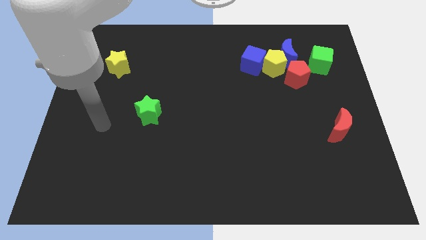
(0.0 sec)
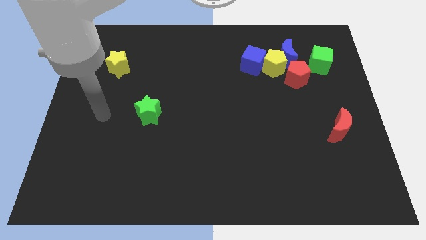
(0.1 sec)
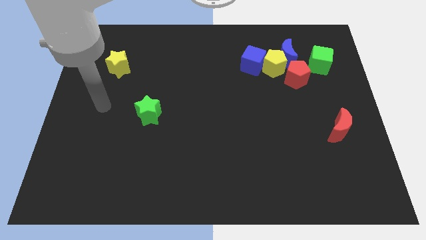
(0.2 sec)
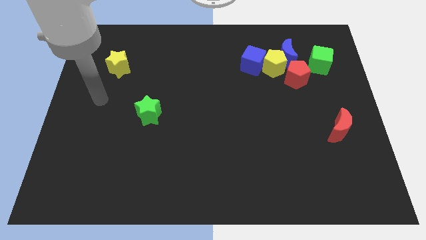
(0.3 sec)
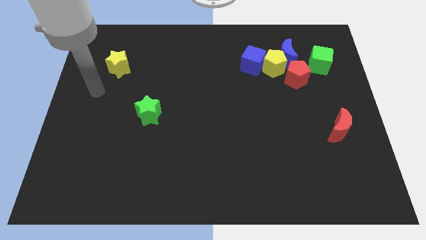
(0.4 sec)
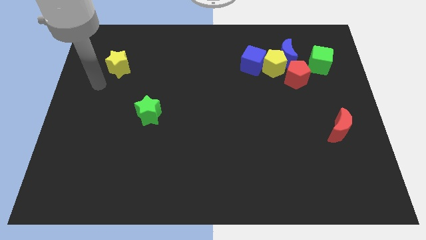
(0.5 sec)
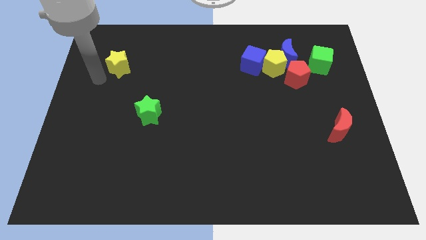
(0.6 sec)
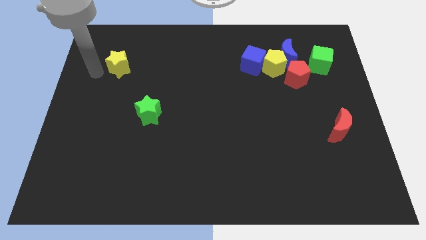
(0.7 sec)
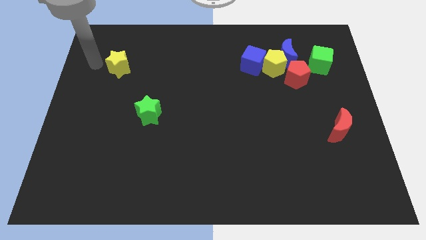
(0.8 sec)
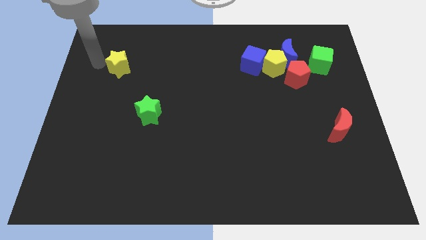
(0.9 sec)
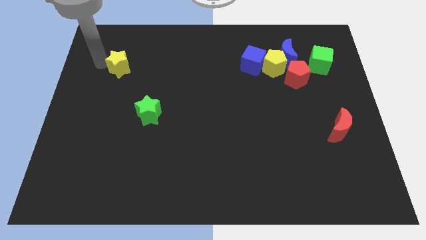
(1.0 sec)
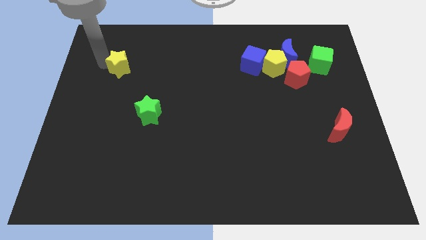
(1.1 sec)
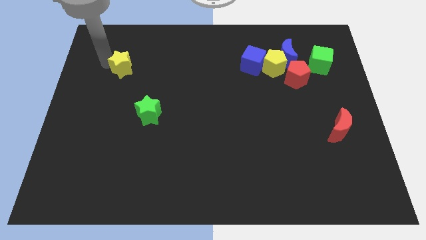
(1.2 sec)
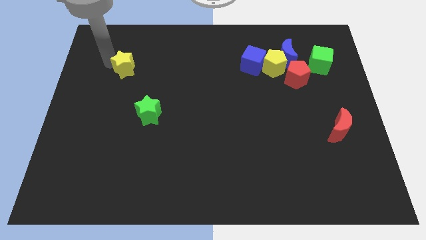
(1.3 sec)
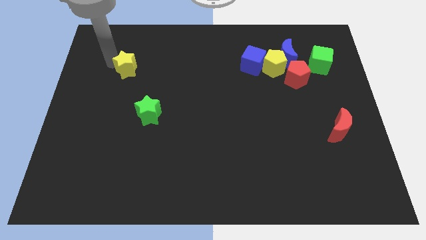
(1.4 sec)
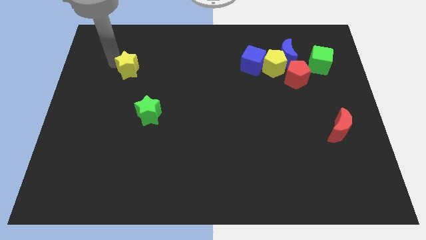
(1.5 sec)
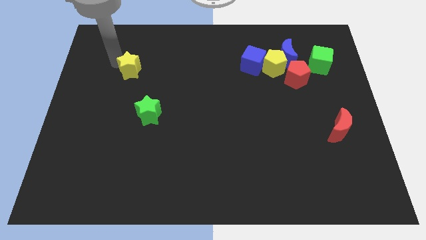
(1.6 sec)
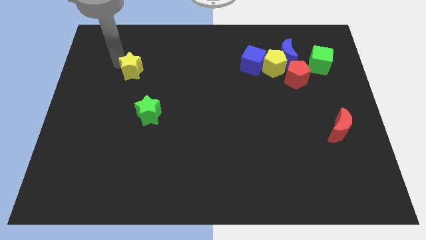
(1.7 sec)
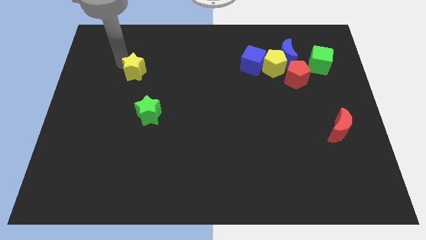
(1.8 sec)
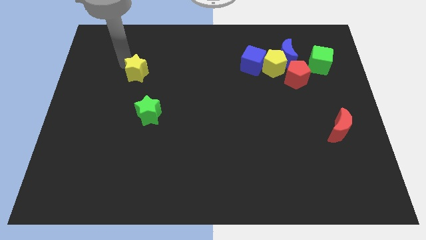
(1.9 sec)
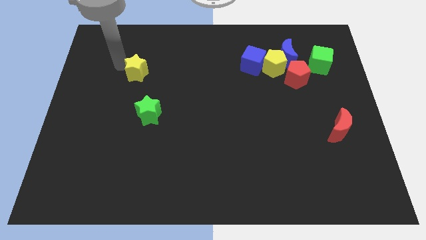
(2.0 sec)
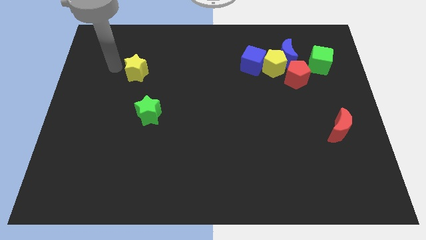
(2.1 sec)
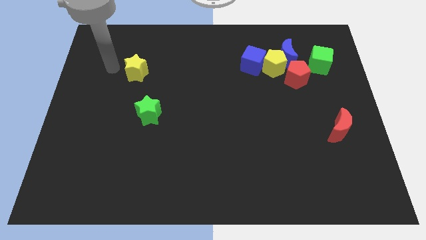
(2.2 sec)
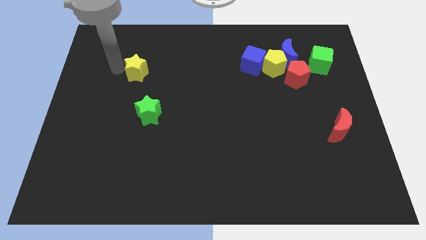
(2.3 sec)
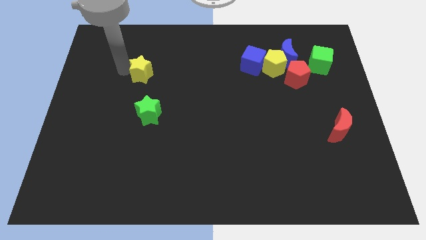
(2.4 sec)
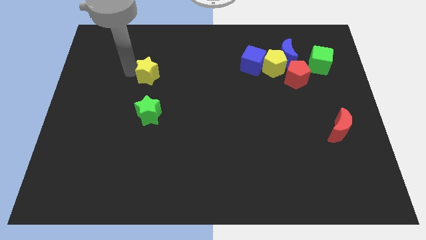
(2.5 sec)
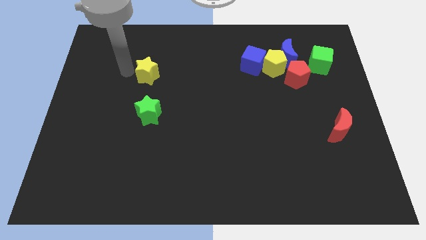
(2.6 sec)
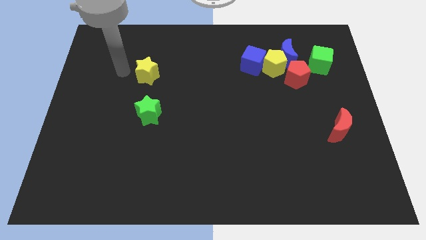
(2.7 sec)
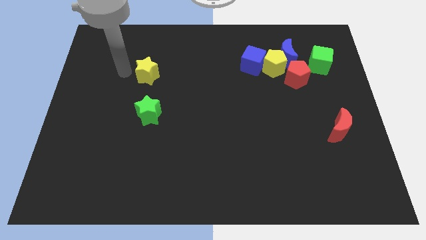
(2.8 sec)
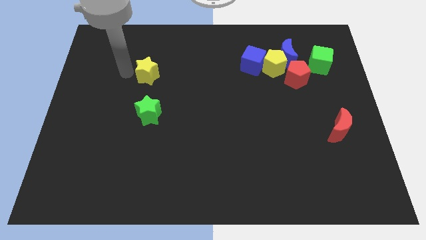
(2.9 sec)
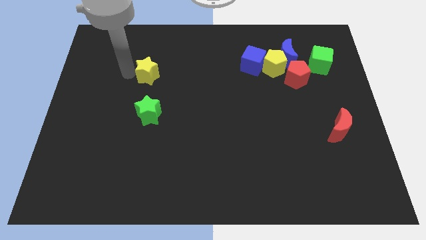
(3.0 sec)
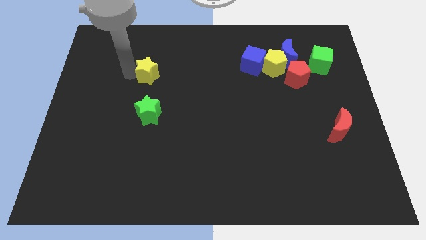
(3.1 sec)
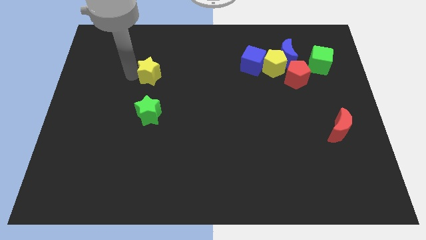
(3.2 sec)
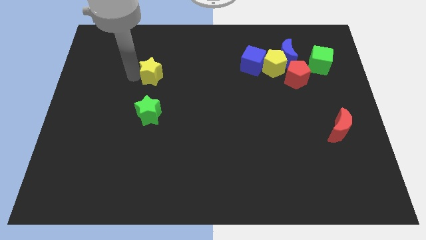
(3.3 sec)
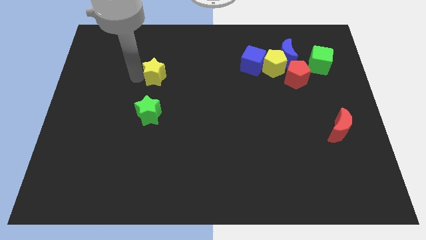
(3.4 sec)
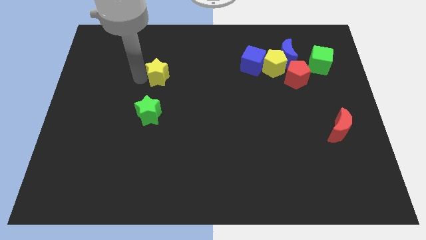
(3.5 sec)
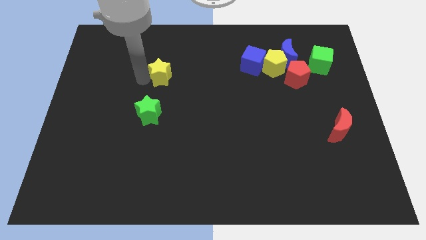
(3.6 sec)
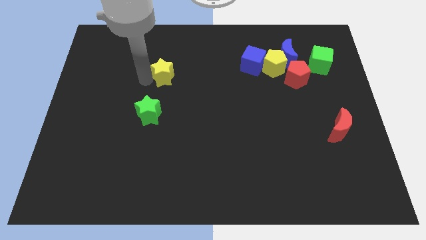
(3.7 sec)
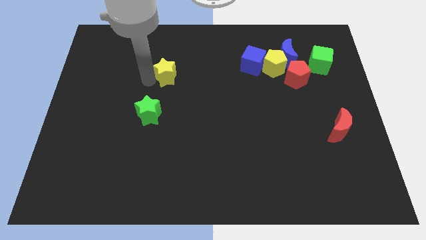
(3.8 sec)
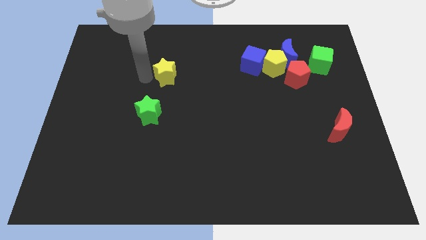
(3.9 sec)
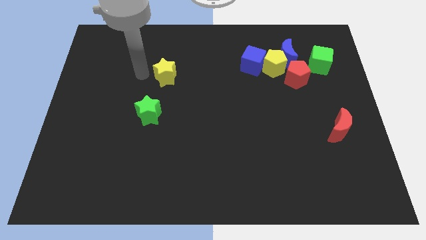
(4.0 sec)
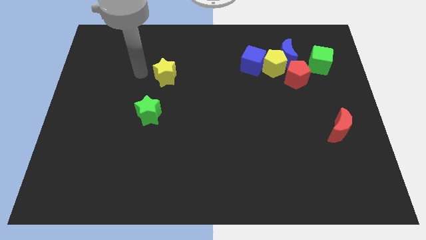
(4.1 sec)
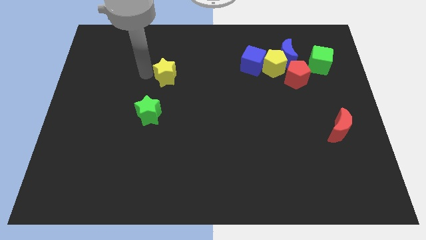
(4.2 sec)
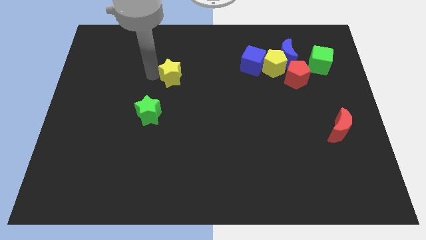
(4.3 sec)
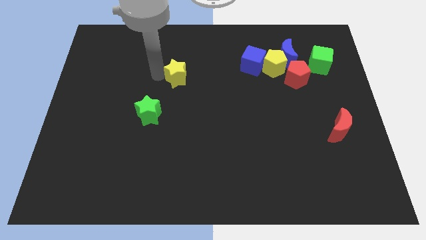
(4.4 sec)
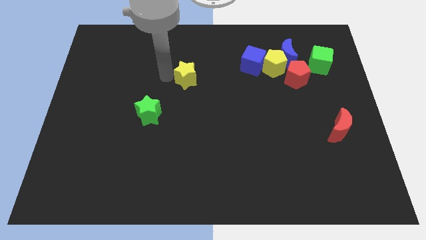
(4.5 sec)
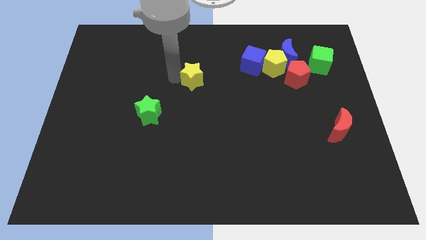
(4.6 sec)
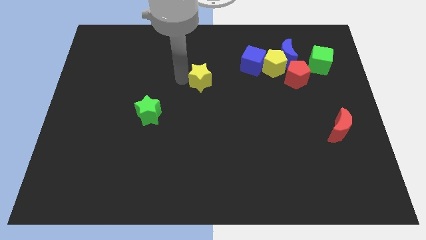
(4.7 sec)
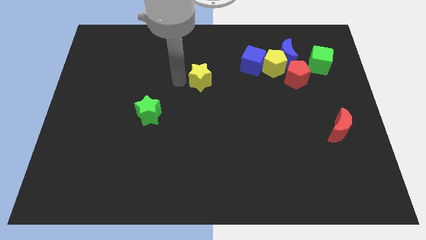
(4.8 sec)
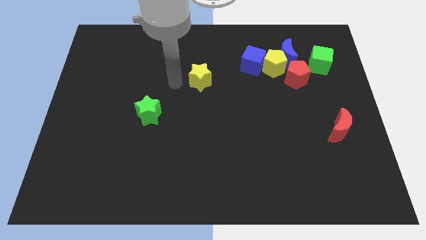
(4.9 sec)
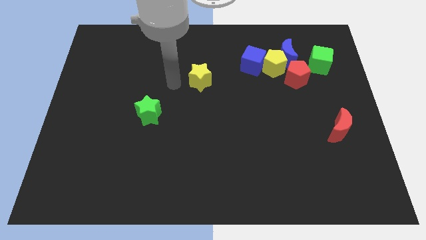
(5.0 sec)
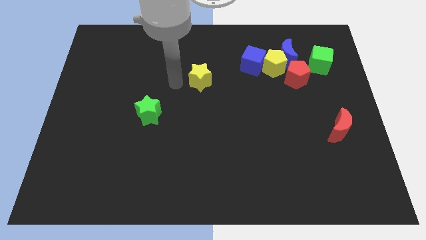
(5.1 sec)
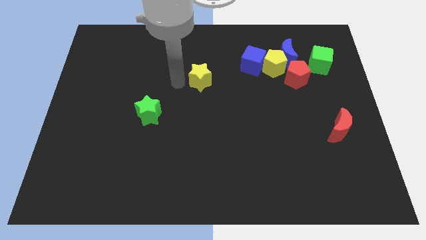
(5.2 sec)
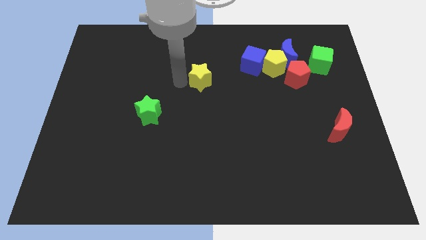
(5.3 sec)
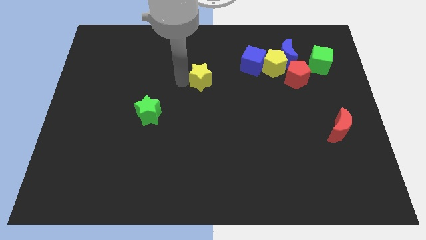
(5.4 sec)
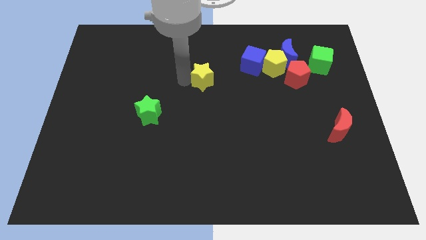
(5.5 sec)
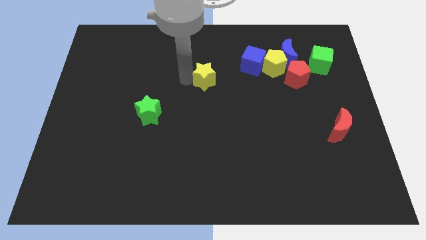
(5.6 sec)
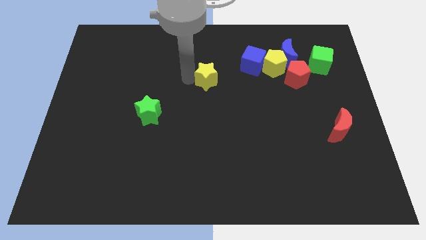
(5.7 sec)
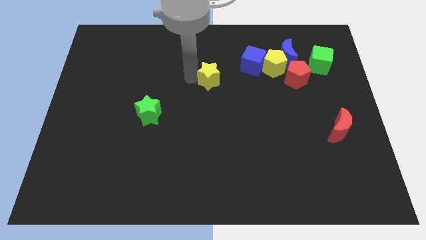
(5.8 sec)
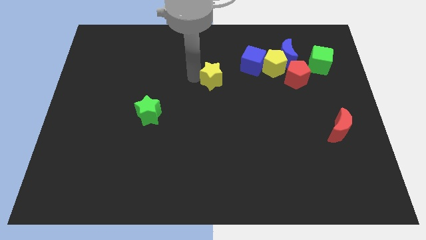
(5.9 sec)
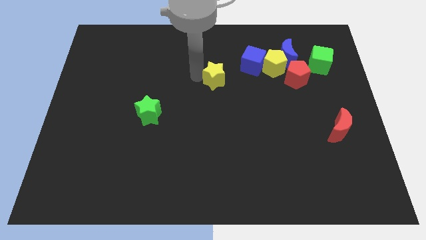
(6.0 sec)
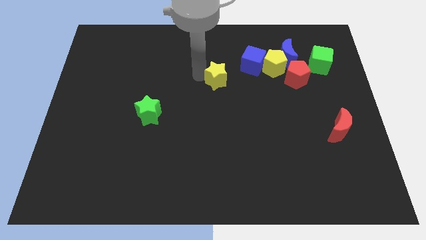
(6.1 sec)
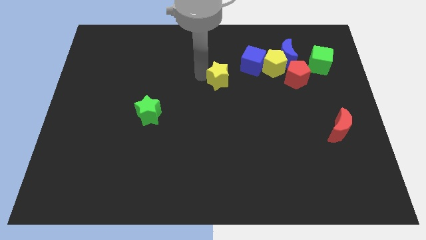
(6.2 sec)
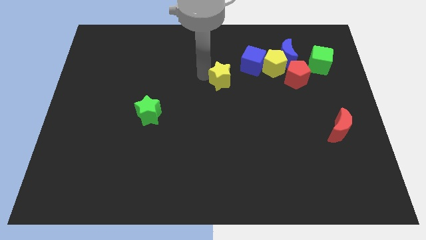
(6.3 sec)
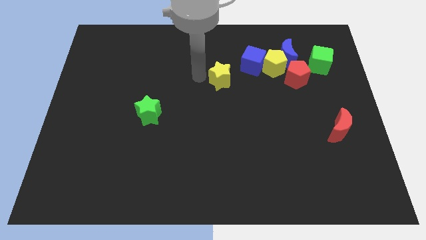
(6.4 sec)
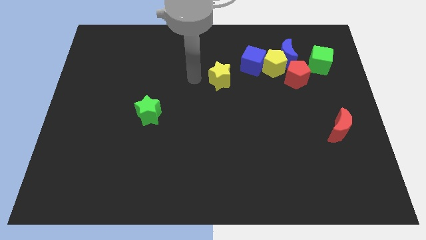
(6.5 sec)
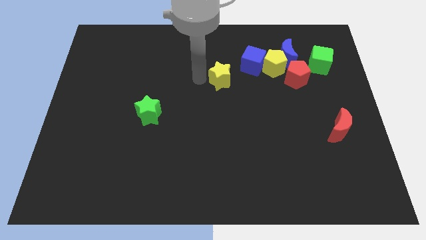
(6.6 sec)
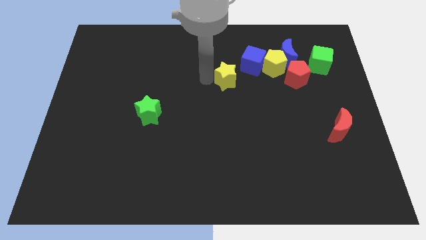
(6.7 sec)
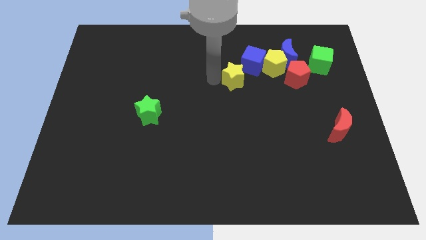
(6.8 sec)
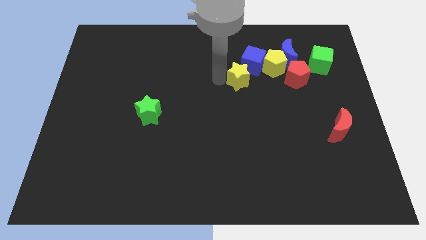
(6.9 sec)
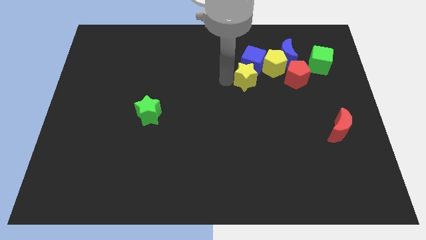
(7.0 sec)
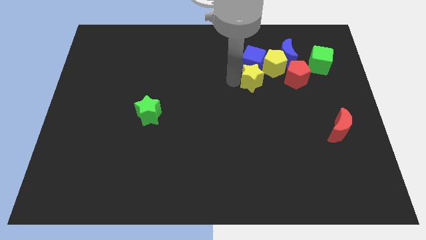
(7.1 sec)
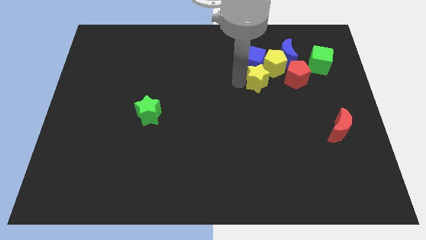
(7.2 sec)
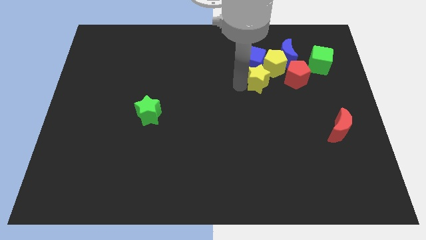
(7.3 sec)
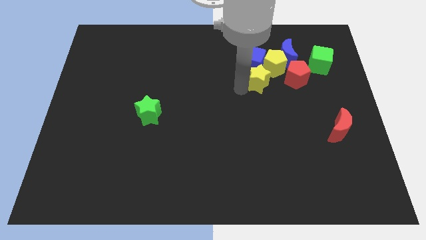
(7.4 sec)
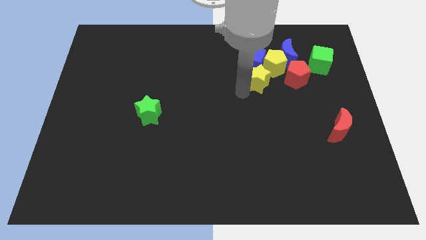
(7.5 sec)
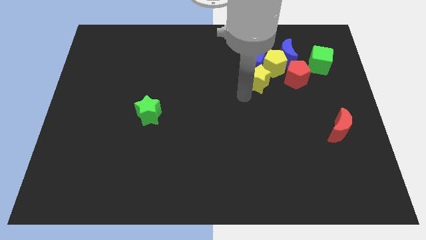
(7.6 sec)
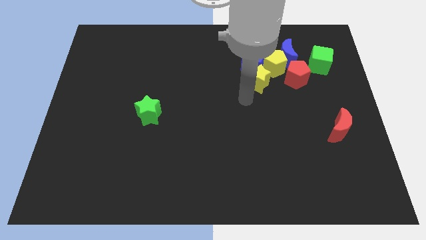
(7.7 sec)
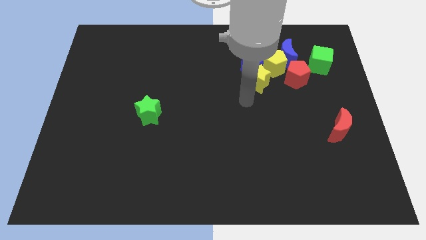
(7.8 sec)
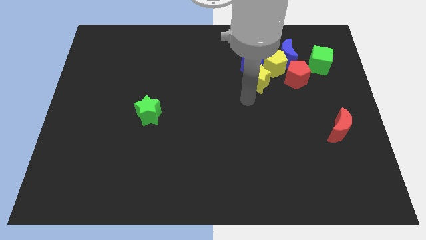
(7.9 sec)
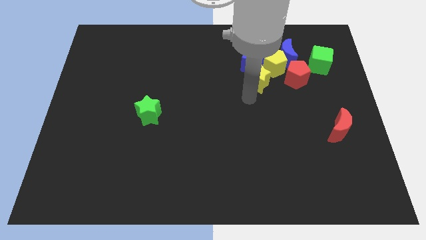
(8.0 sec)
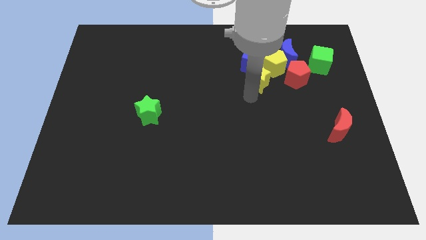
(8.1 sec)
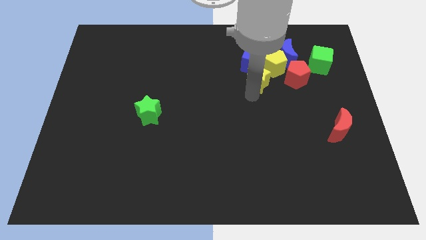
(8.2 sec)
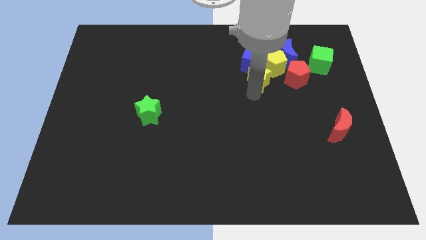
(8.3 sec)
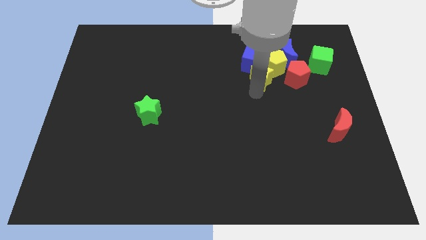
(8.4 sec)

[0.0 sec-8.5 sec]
slide the yellow star towards the yellow pentagon
